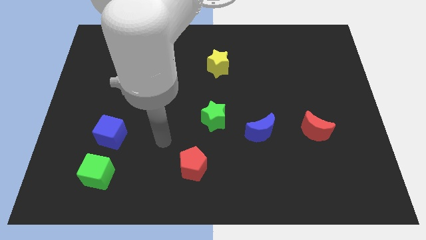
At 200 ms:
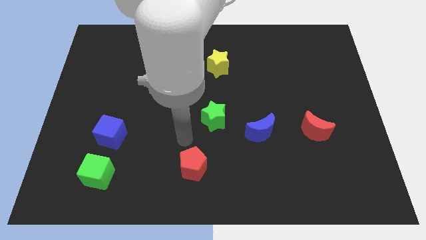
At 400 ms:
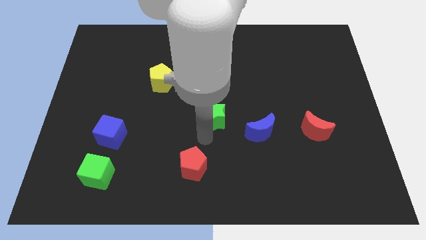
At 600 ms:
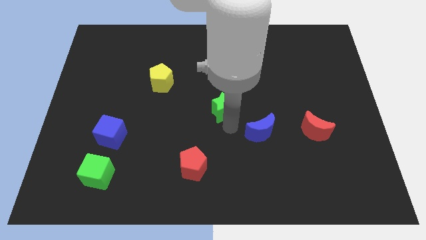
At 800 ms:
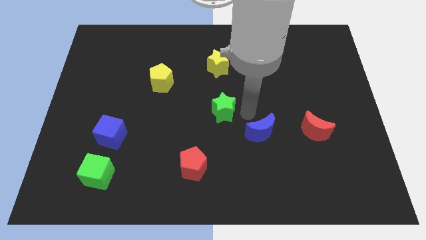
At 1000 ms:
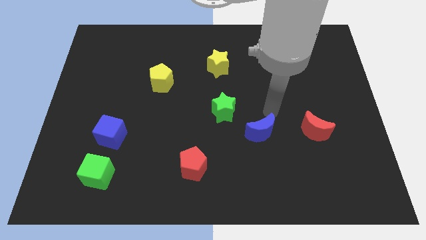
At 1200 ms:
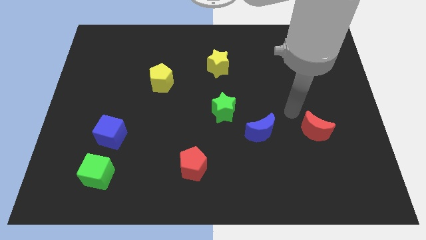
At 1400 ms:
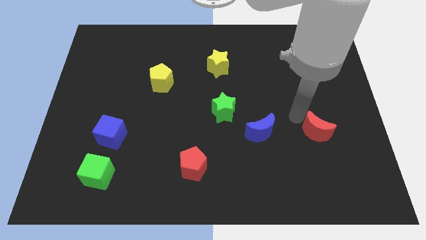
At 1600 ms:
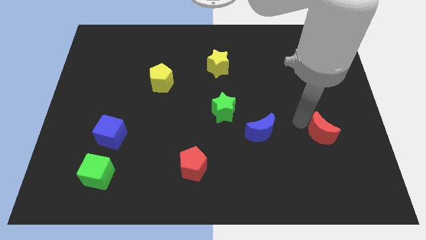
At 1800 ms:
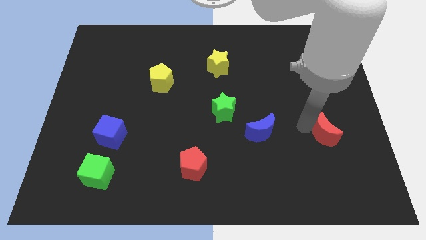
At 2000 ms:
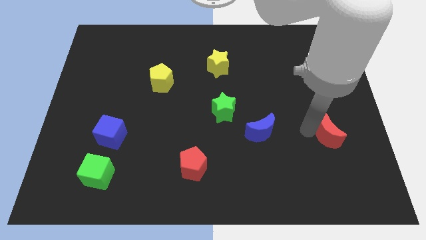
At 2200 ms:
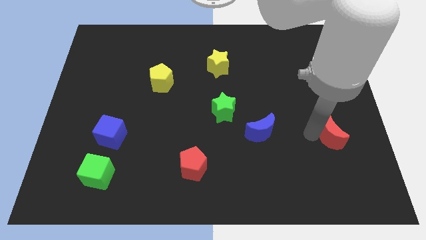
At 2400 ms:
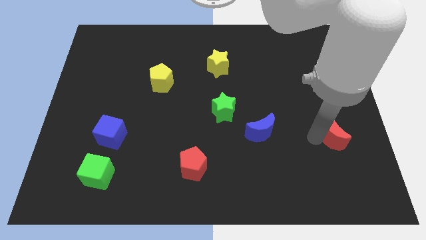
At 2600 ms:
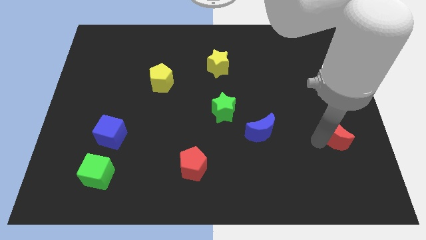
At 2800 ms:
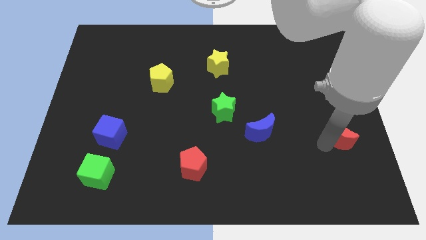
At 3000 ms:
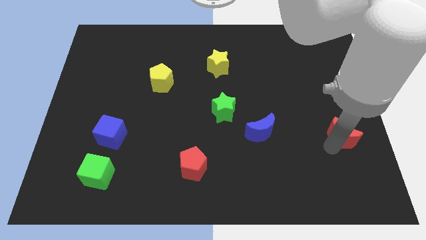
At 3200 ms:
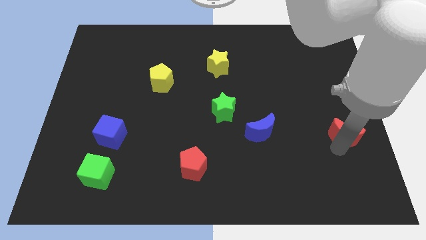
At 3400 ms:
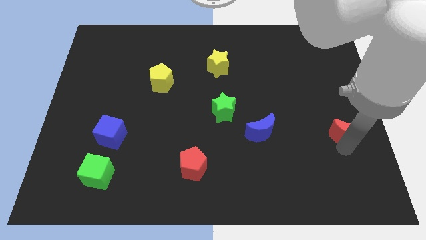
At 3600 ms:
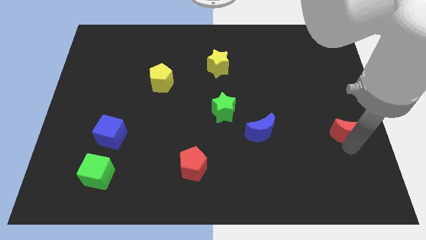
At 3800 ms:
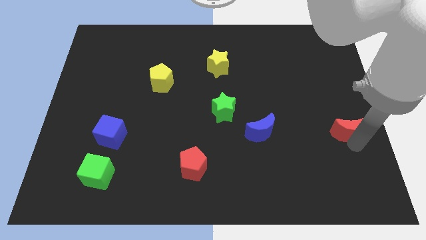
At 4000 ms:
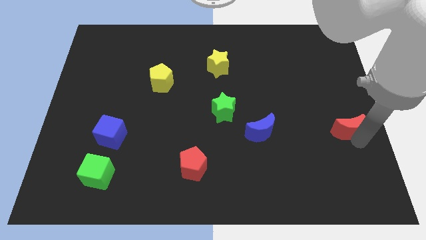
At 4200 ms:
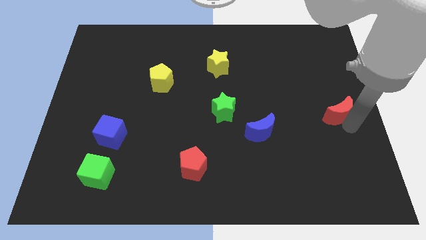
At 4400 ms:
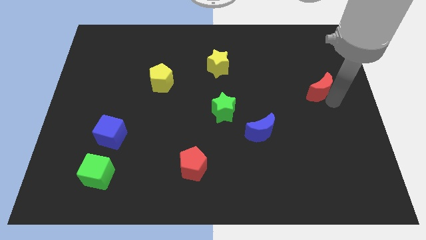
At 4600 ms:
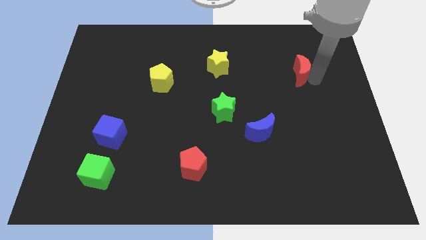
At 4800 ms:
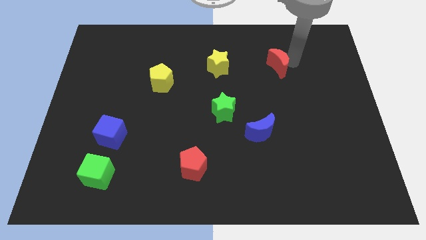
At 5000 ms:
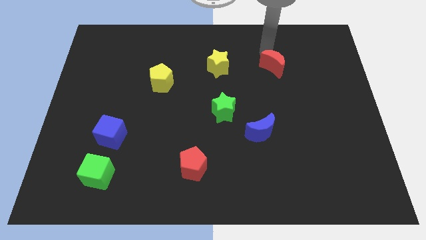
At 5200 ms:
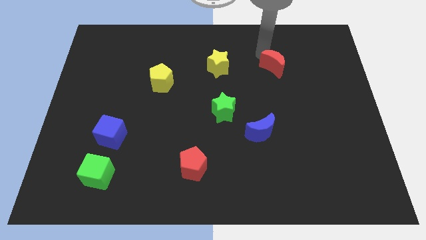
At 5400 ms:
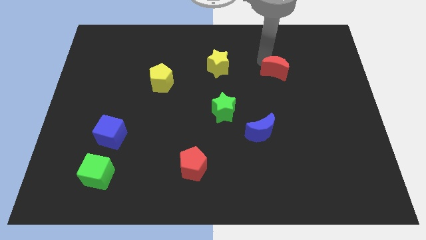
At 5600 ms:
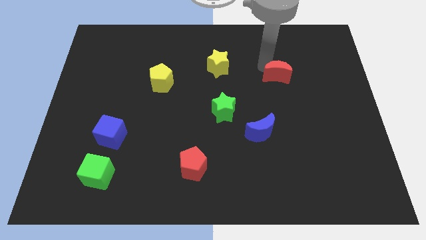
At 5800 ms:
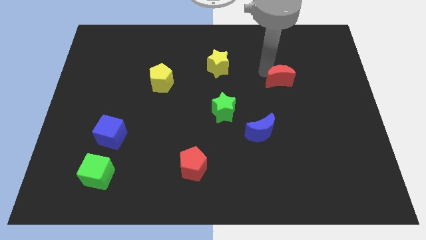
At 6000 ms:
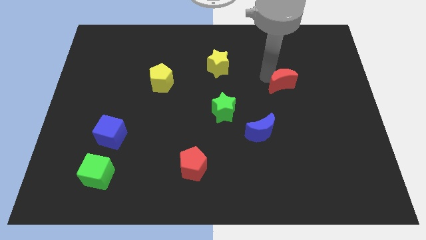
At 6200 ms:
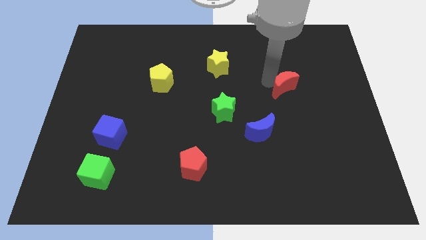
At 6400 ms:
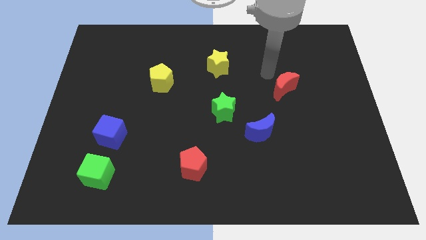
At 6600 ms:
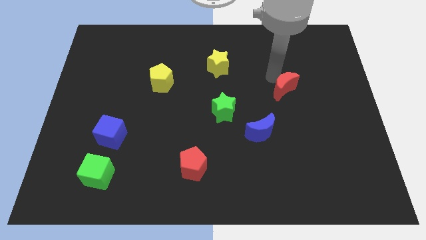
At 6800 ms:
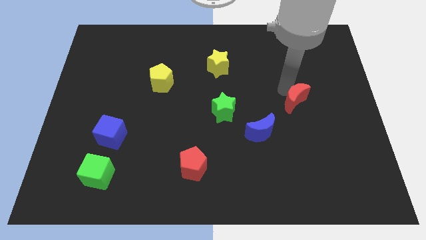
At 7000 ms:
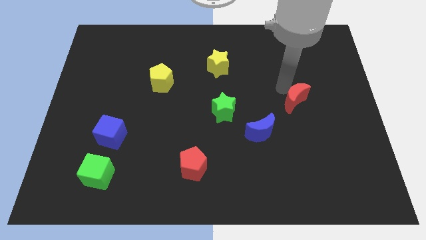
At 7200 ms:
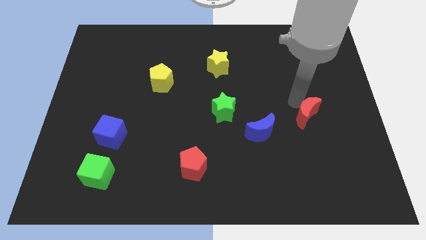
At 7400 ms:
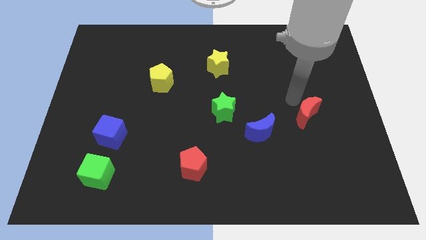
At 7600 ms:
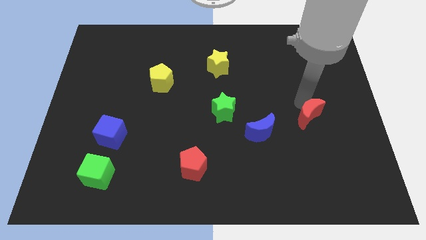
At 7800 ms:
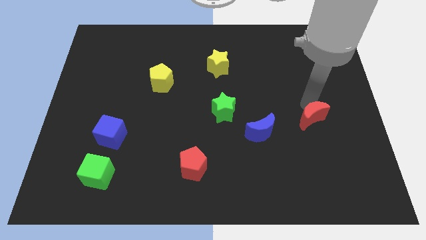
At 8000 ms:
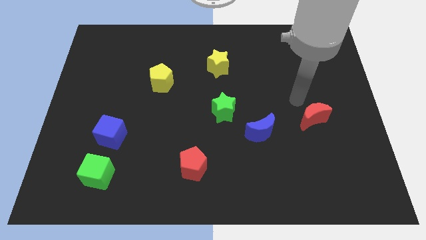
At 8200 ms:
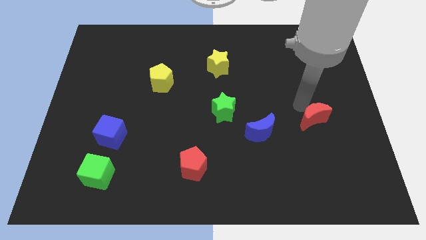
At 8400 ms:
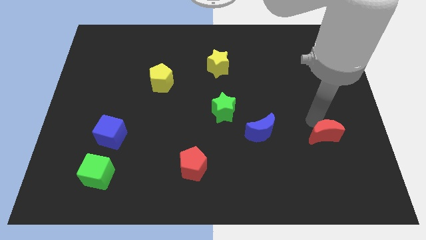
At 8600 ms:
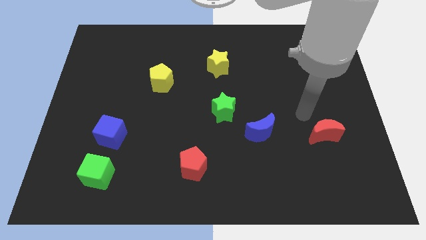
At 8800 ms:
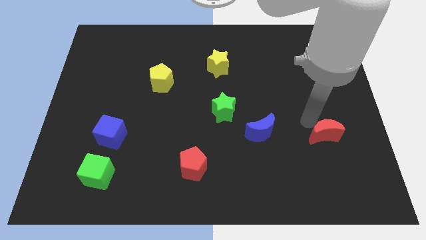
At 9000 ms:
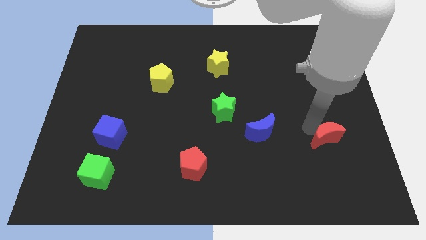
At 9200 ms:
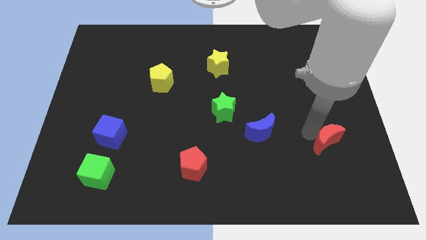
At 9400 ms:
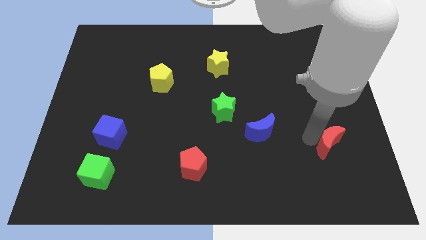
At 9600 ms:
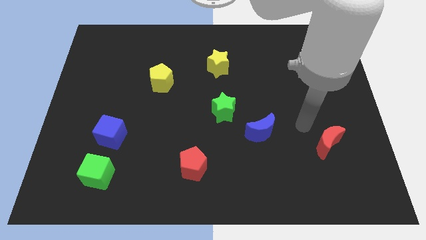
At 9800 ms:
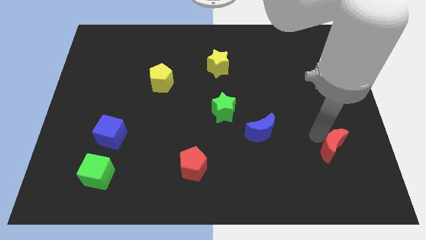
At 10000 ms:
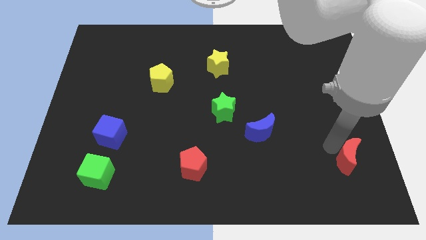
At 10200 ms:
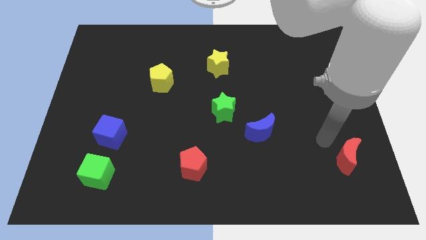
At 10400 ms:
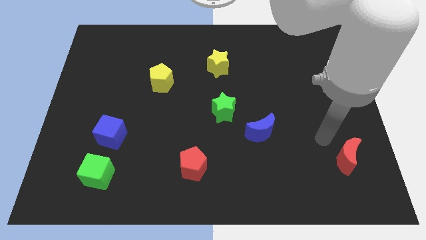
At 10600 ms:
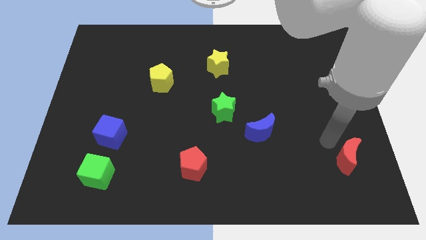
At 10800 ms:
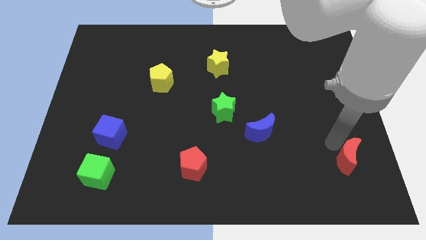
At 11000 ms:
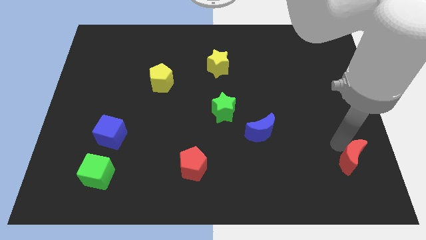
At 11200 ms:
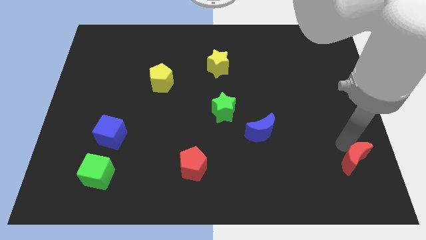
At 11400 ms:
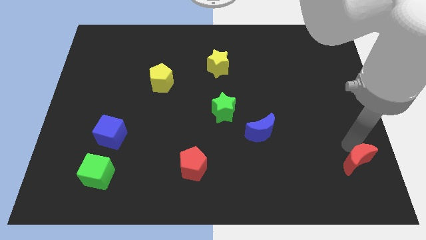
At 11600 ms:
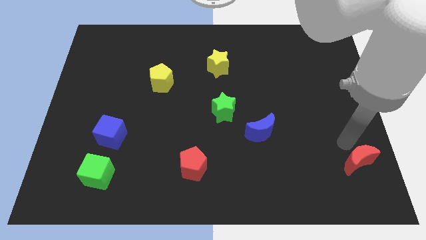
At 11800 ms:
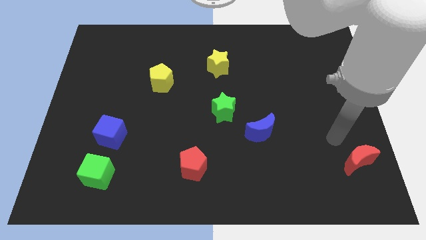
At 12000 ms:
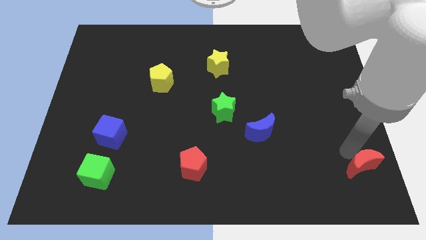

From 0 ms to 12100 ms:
push the red moon to the lower right corner
